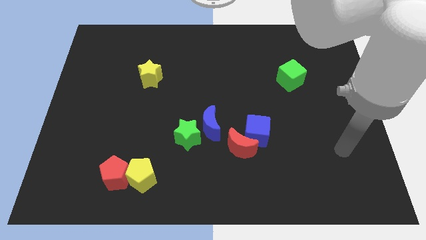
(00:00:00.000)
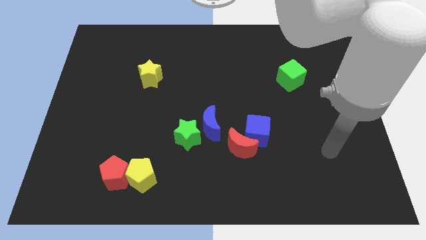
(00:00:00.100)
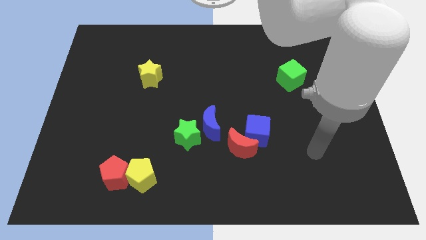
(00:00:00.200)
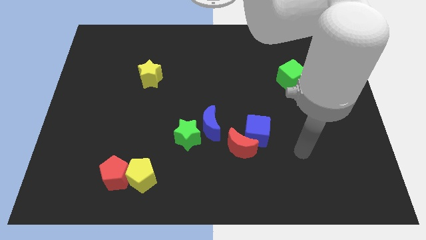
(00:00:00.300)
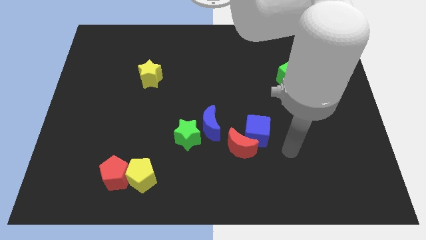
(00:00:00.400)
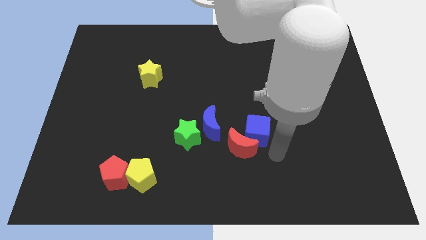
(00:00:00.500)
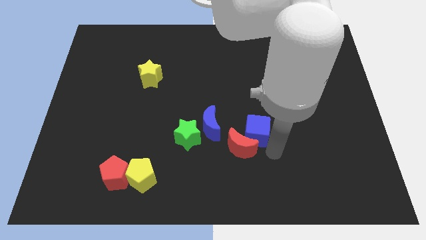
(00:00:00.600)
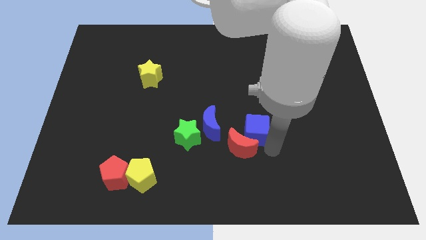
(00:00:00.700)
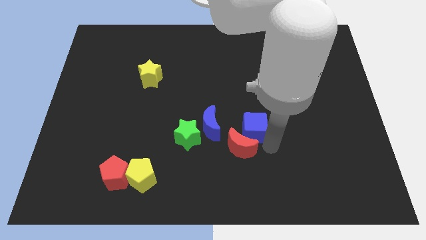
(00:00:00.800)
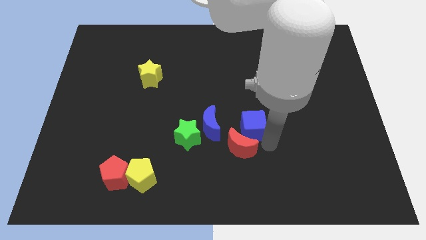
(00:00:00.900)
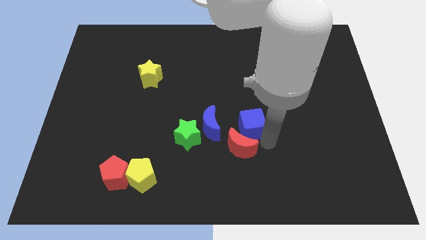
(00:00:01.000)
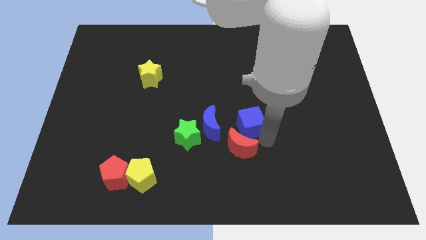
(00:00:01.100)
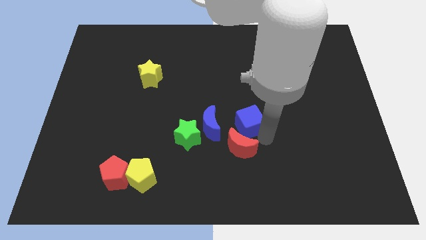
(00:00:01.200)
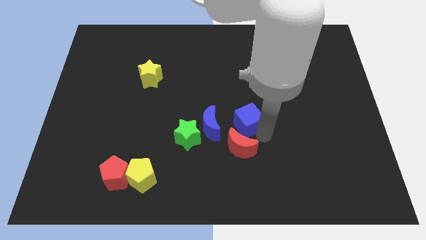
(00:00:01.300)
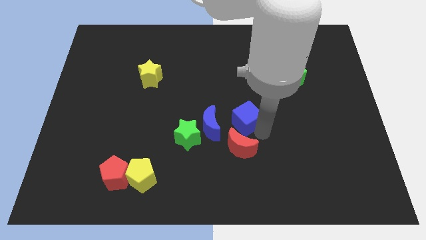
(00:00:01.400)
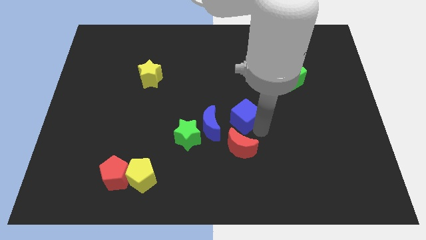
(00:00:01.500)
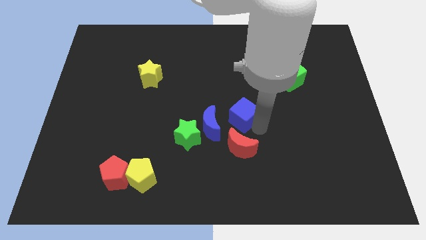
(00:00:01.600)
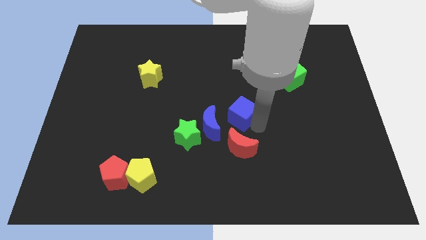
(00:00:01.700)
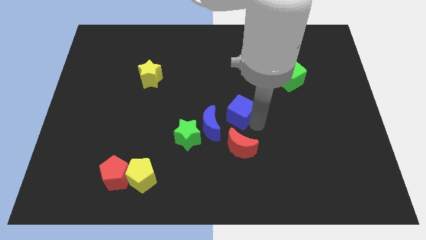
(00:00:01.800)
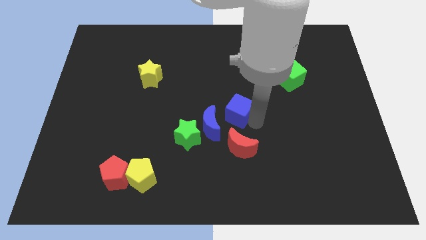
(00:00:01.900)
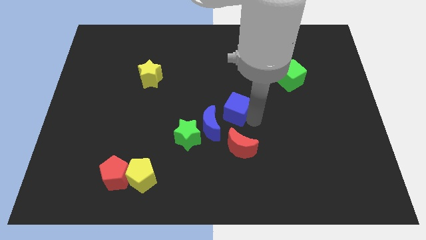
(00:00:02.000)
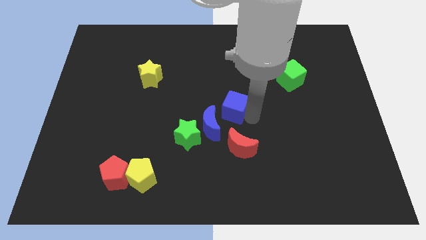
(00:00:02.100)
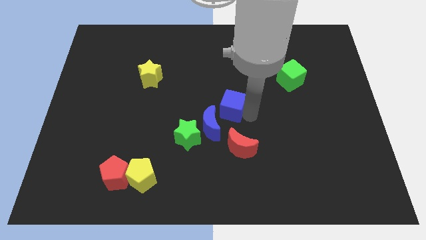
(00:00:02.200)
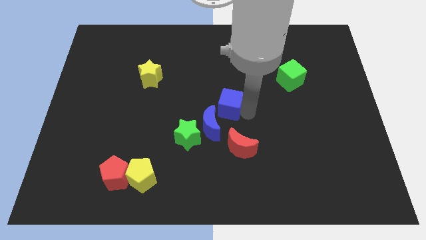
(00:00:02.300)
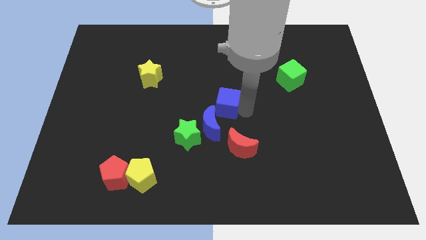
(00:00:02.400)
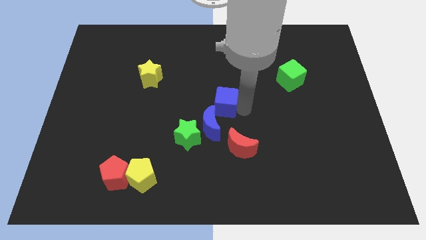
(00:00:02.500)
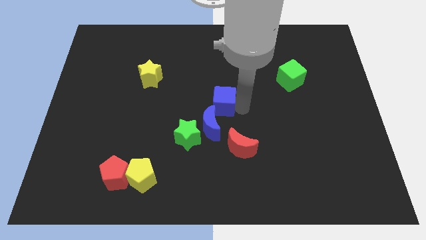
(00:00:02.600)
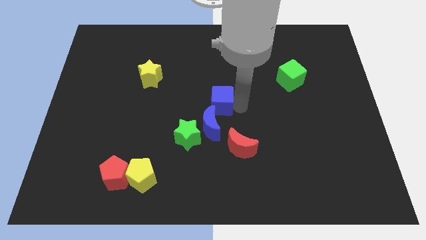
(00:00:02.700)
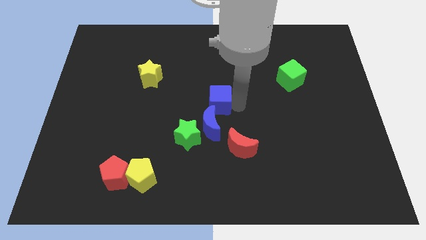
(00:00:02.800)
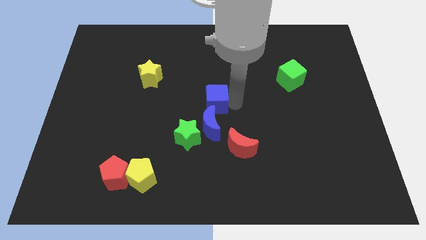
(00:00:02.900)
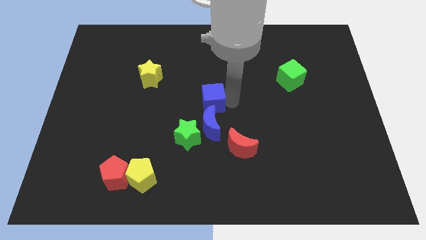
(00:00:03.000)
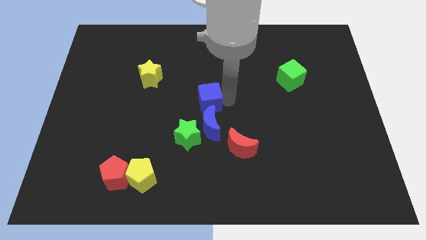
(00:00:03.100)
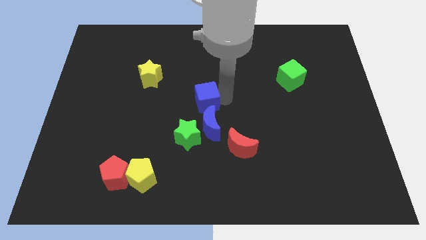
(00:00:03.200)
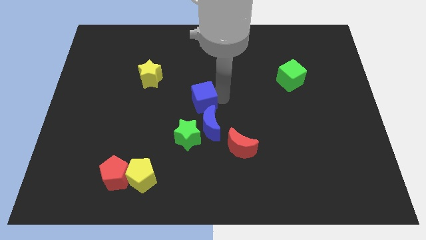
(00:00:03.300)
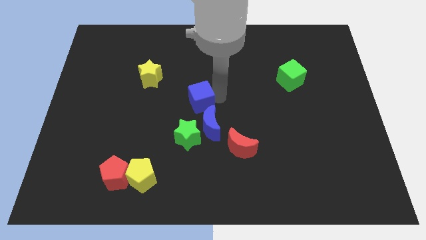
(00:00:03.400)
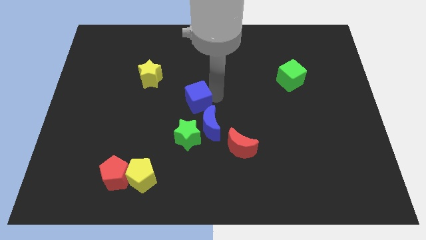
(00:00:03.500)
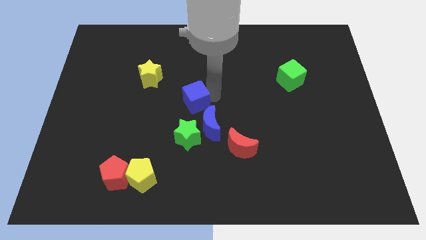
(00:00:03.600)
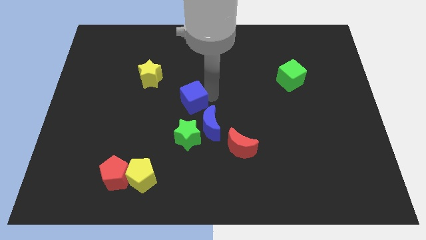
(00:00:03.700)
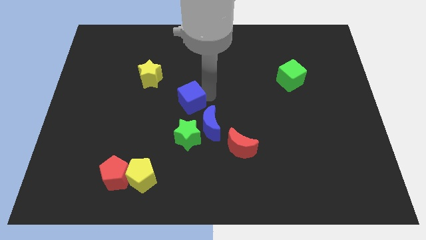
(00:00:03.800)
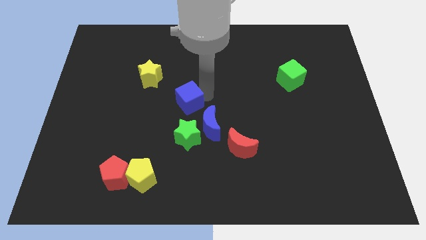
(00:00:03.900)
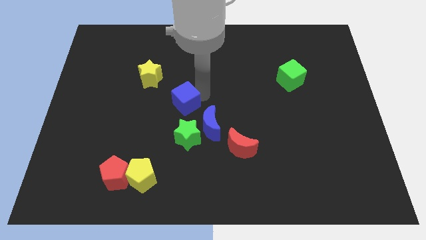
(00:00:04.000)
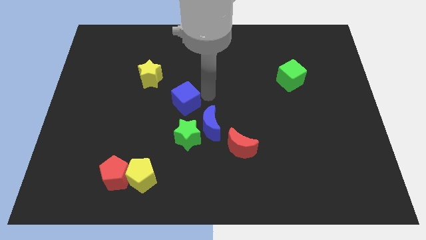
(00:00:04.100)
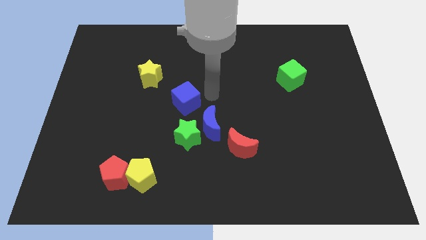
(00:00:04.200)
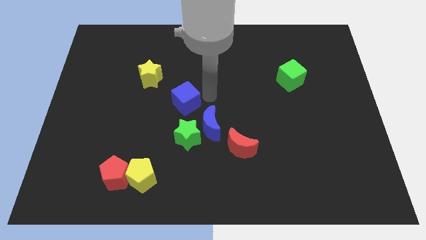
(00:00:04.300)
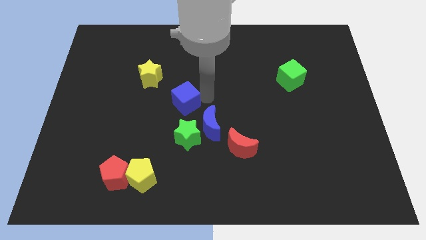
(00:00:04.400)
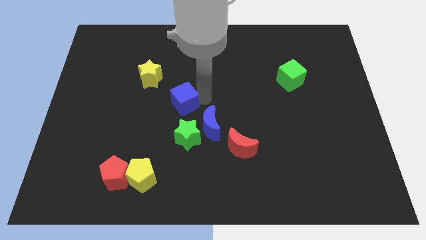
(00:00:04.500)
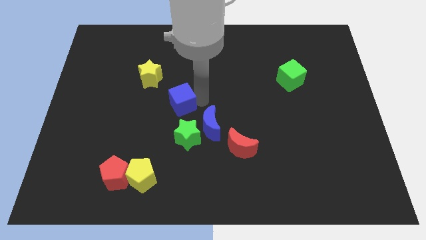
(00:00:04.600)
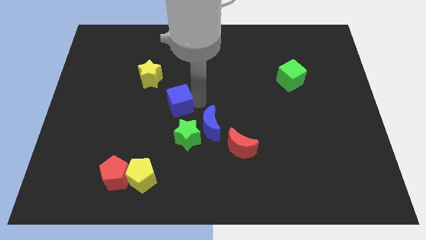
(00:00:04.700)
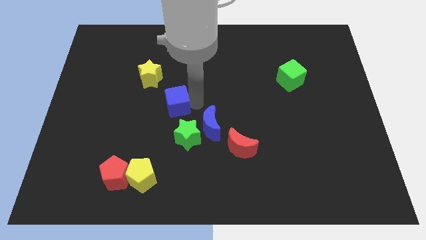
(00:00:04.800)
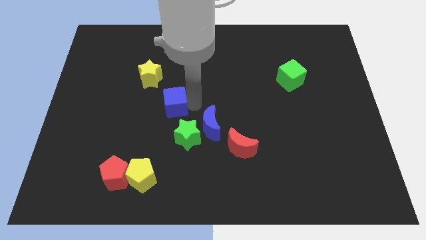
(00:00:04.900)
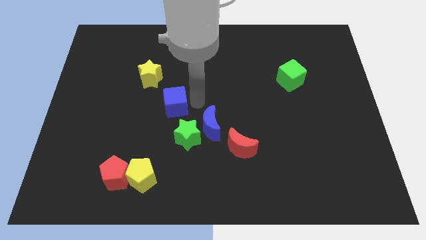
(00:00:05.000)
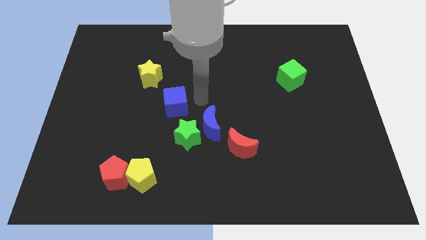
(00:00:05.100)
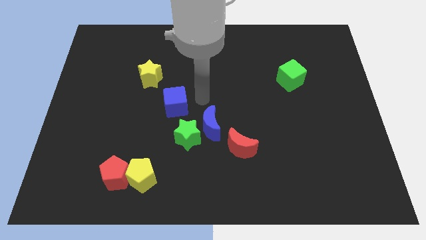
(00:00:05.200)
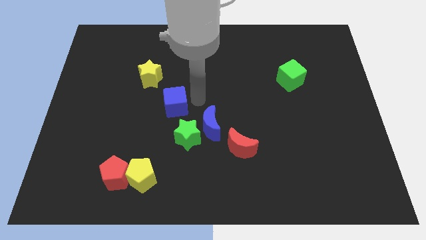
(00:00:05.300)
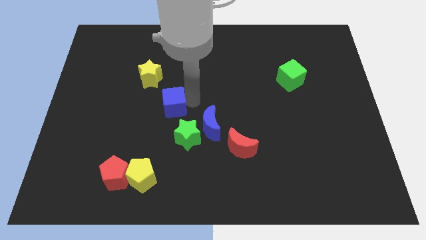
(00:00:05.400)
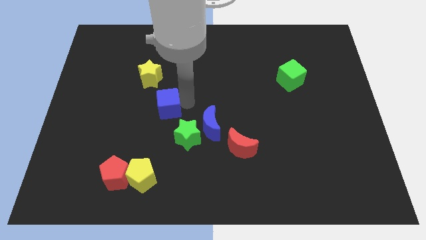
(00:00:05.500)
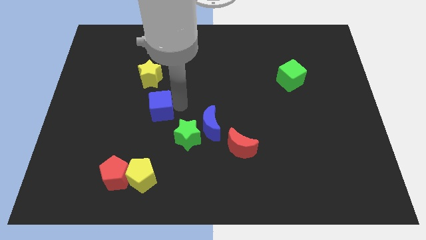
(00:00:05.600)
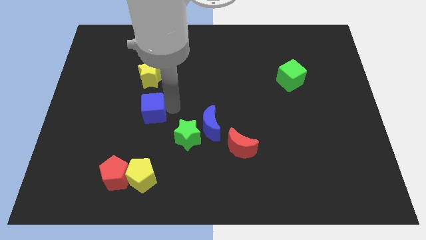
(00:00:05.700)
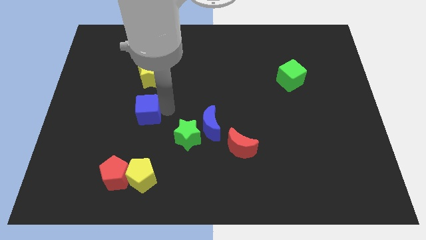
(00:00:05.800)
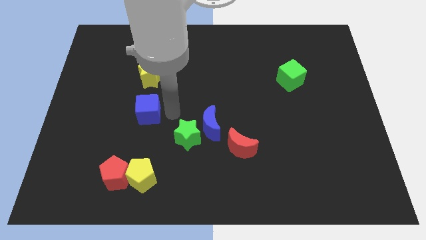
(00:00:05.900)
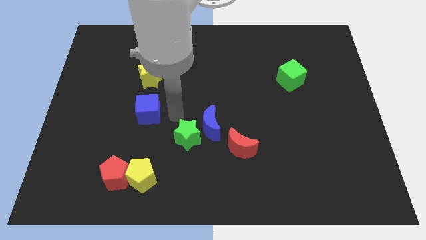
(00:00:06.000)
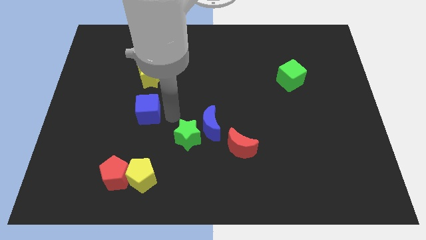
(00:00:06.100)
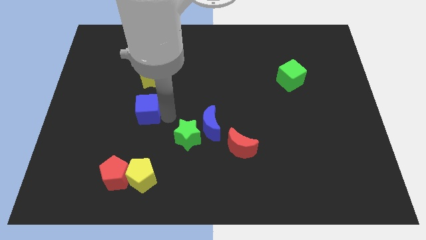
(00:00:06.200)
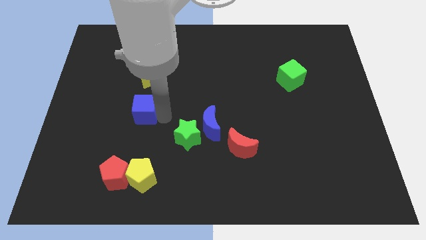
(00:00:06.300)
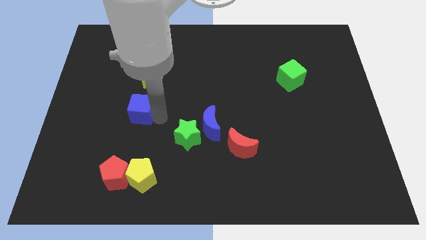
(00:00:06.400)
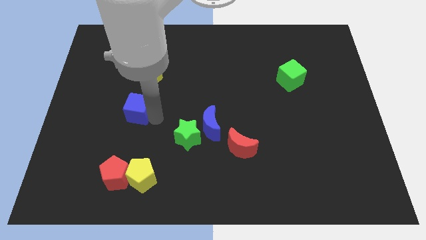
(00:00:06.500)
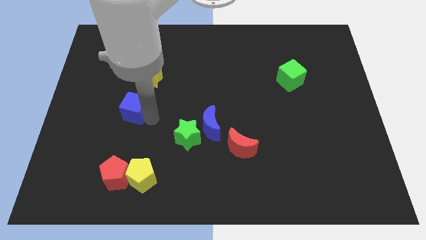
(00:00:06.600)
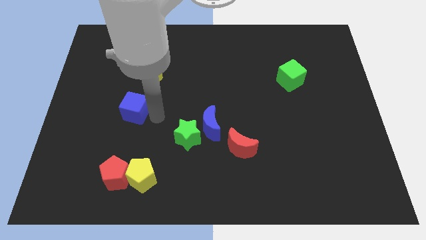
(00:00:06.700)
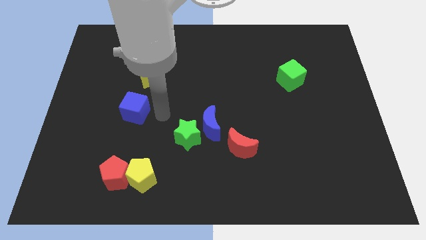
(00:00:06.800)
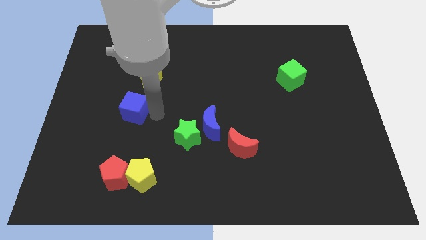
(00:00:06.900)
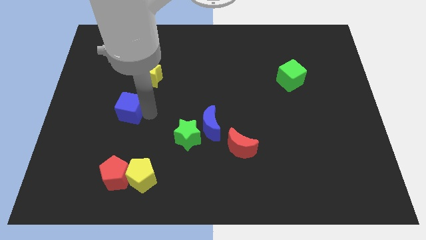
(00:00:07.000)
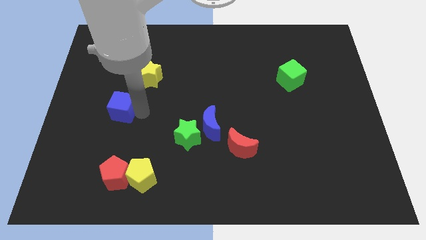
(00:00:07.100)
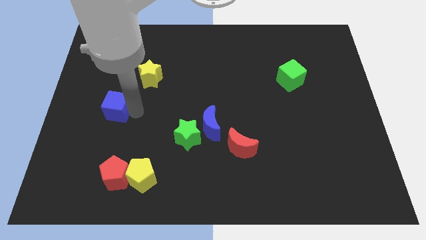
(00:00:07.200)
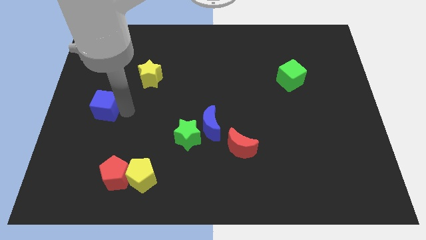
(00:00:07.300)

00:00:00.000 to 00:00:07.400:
put the blue cube to the left side of the board
